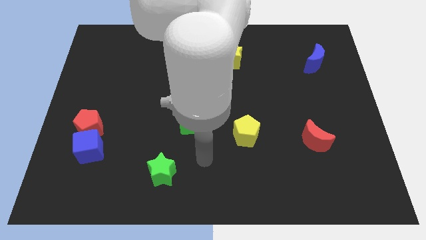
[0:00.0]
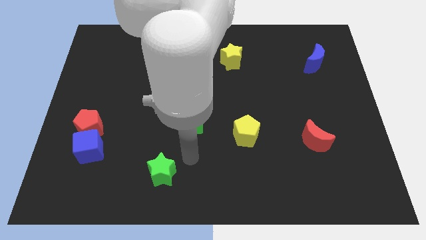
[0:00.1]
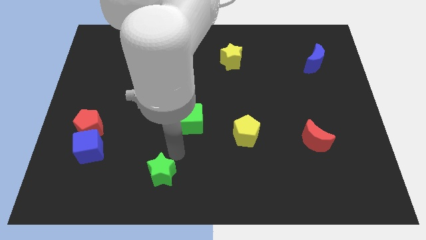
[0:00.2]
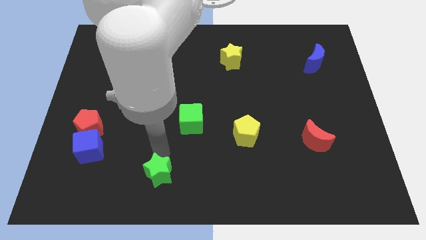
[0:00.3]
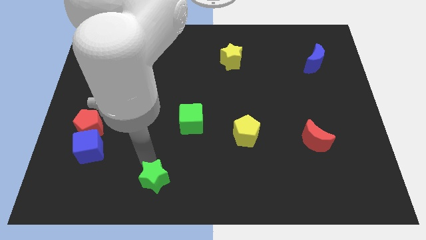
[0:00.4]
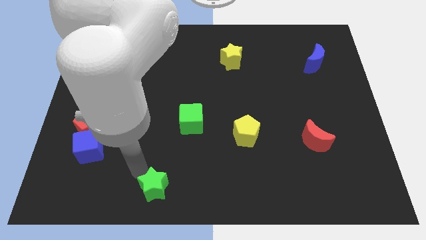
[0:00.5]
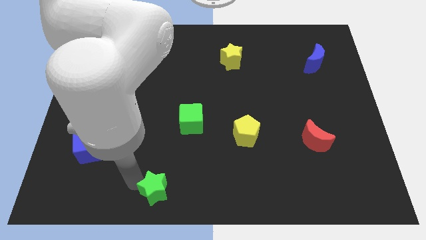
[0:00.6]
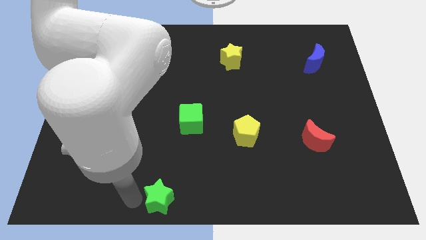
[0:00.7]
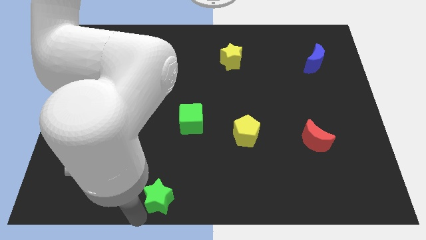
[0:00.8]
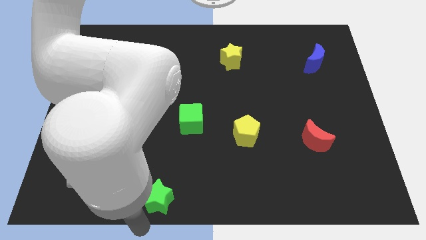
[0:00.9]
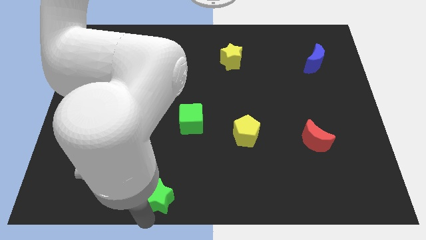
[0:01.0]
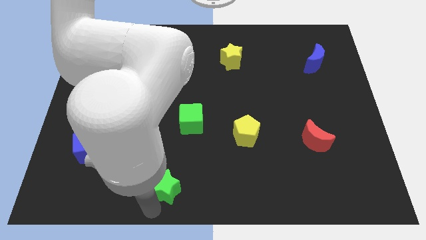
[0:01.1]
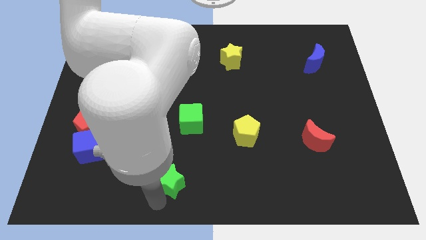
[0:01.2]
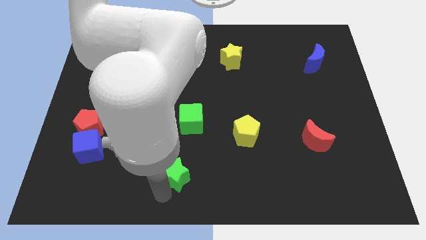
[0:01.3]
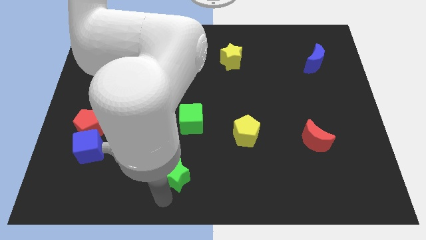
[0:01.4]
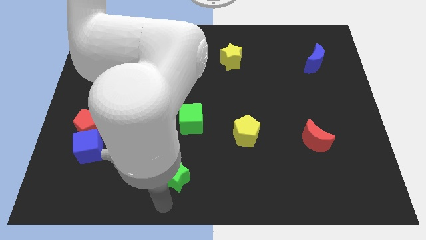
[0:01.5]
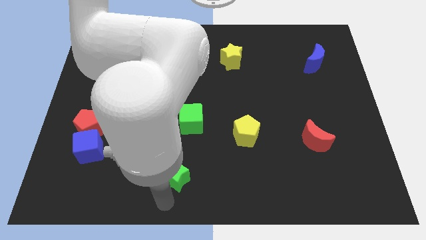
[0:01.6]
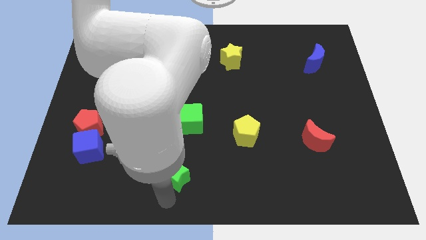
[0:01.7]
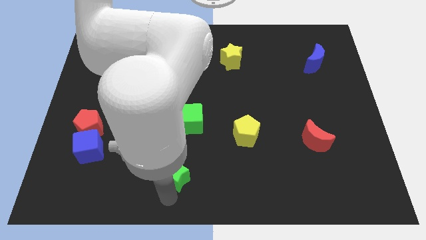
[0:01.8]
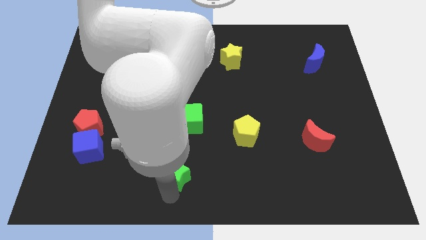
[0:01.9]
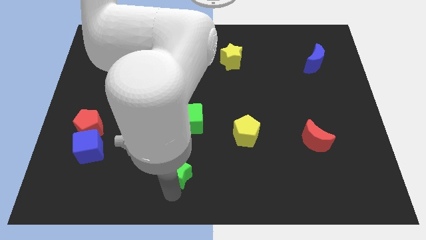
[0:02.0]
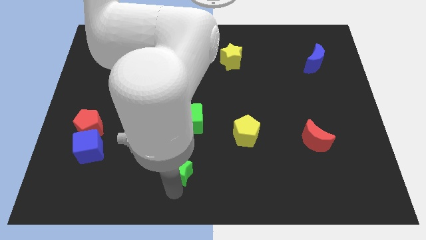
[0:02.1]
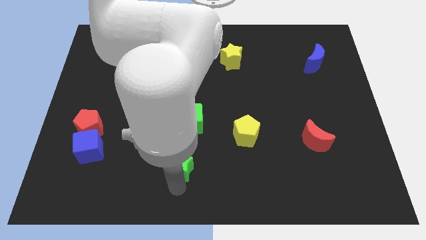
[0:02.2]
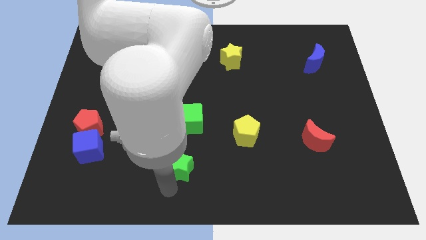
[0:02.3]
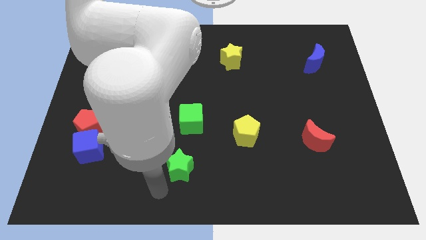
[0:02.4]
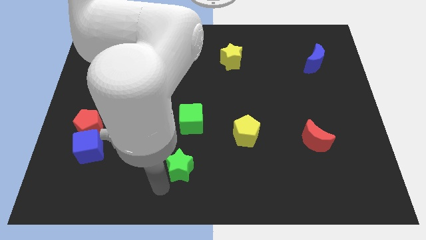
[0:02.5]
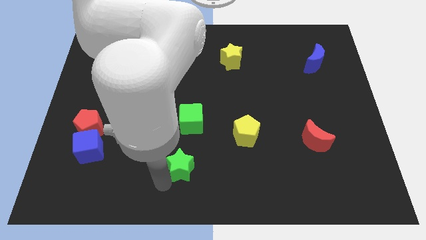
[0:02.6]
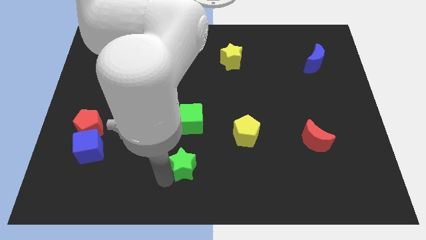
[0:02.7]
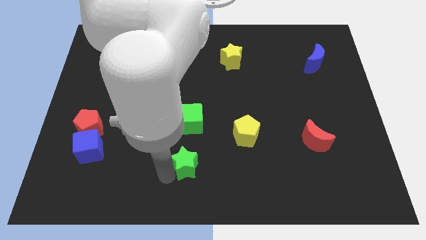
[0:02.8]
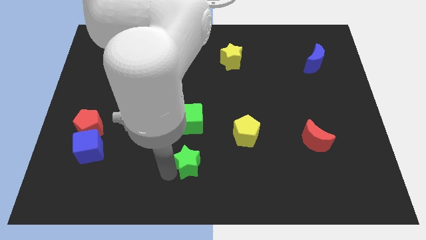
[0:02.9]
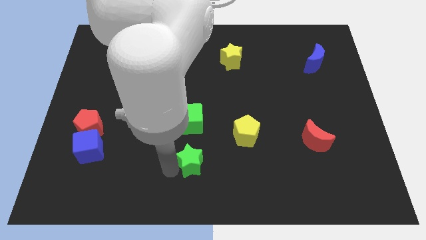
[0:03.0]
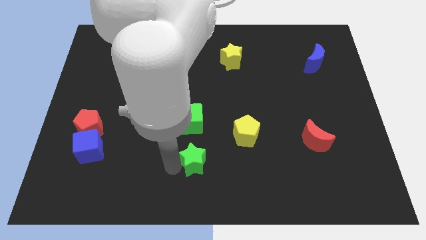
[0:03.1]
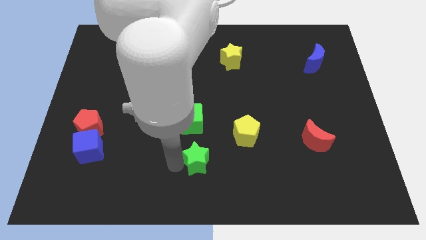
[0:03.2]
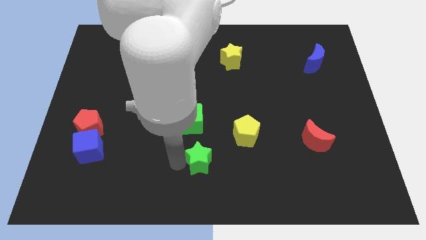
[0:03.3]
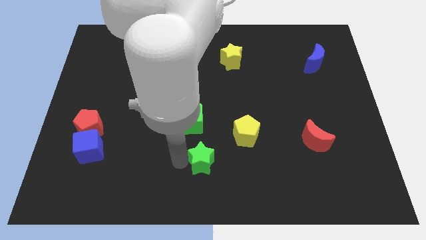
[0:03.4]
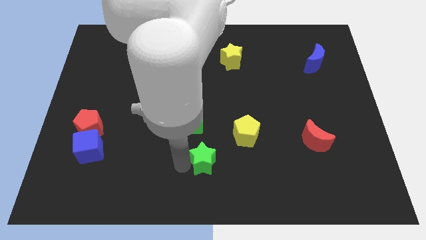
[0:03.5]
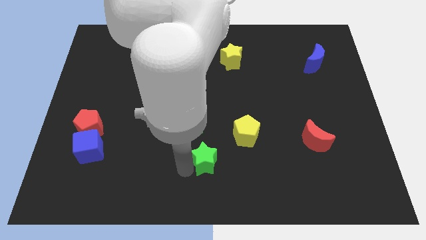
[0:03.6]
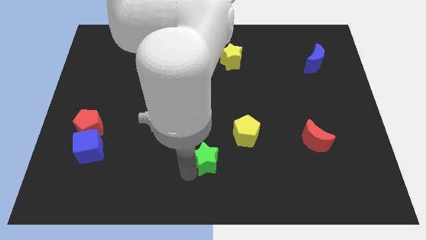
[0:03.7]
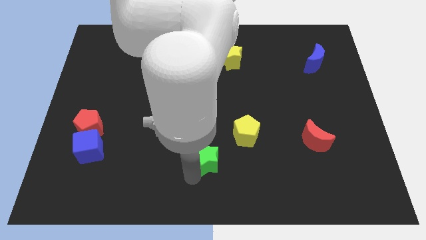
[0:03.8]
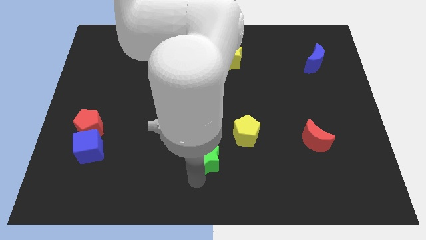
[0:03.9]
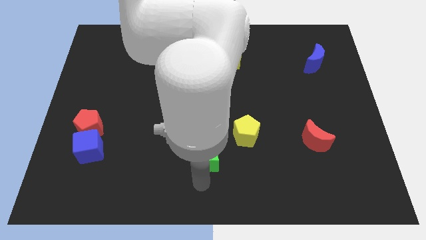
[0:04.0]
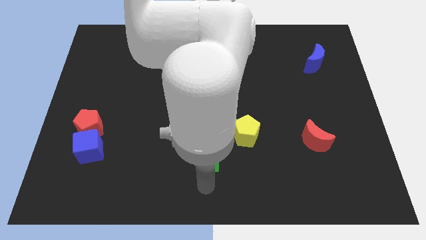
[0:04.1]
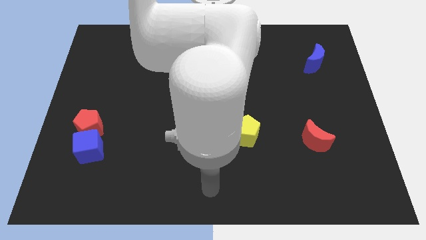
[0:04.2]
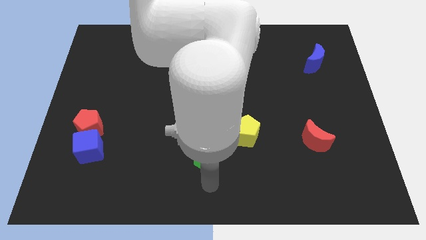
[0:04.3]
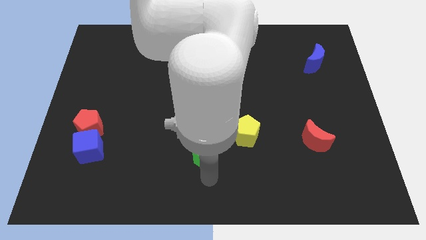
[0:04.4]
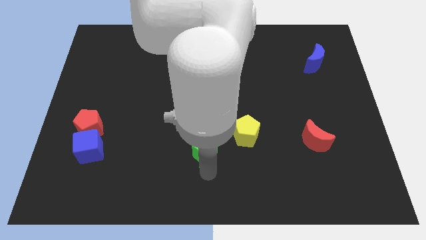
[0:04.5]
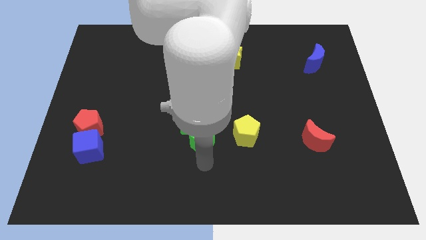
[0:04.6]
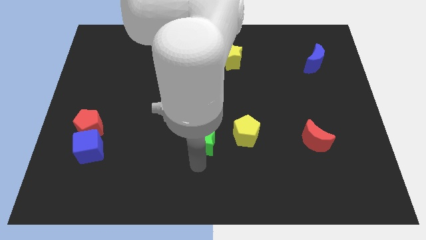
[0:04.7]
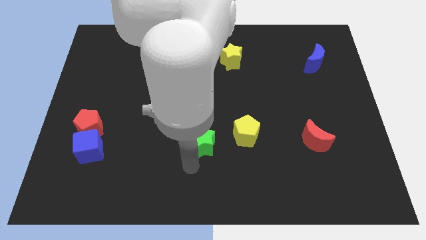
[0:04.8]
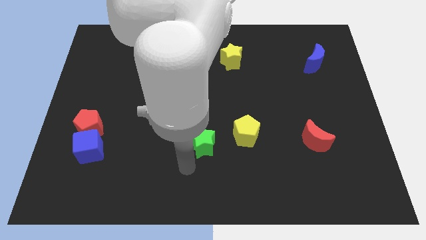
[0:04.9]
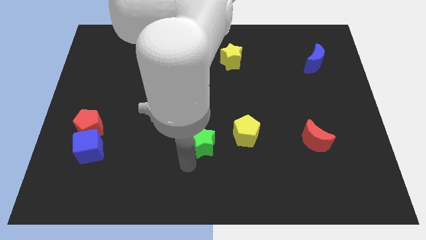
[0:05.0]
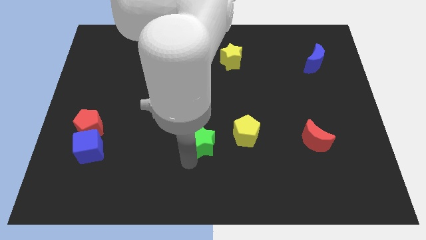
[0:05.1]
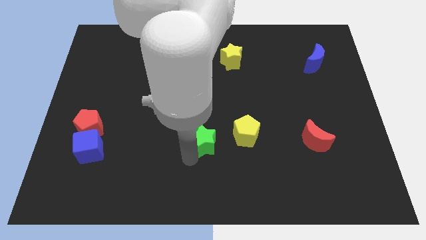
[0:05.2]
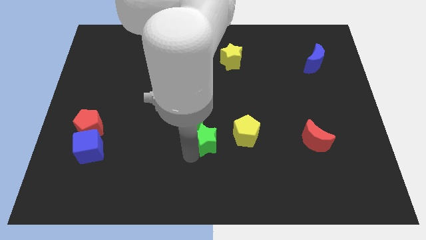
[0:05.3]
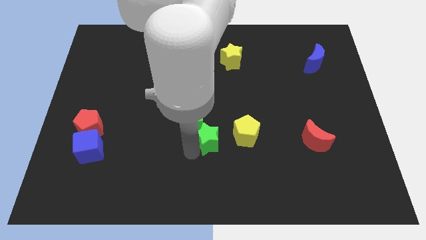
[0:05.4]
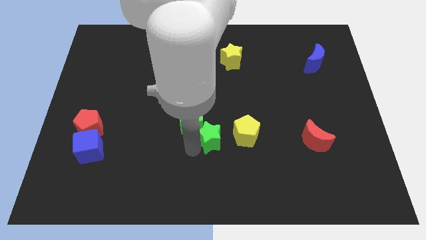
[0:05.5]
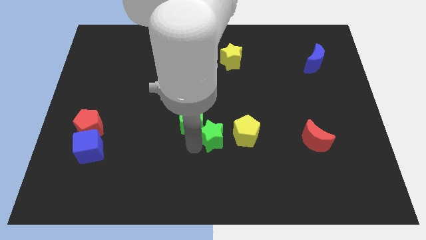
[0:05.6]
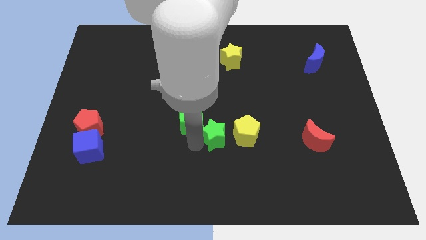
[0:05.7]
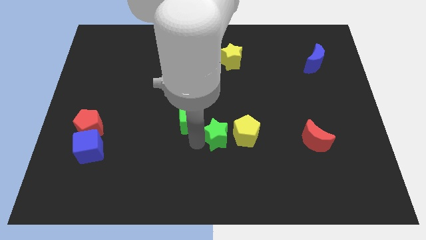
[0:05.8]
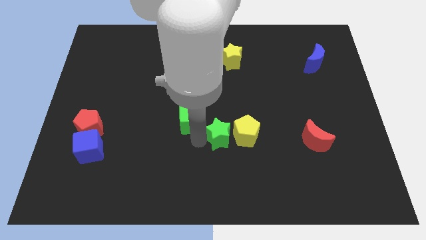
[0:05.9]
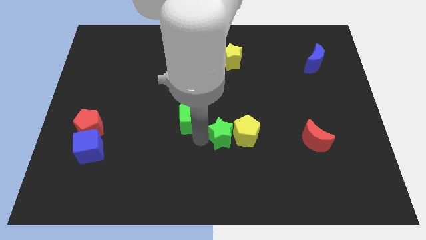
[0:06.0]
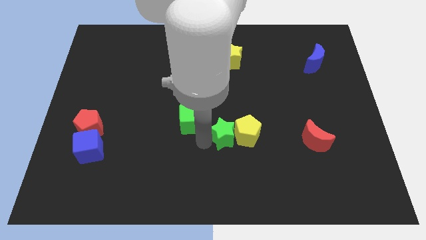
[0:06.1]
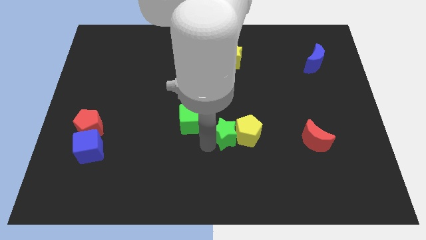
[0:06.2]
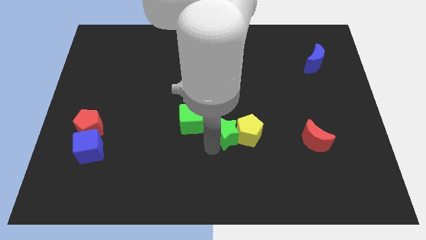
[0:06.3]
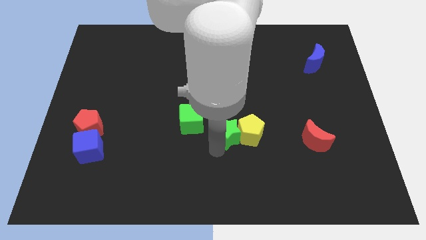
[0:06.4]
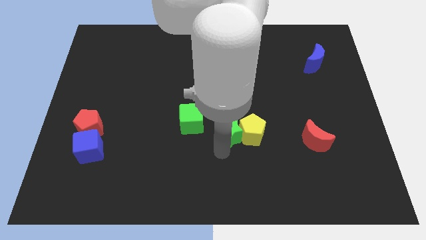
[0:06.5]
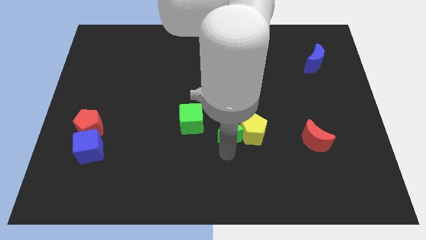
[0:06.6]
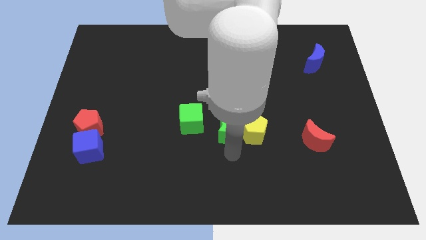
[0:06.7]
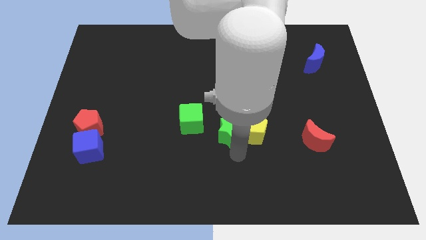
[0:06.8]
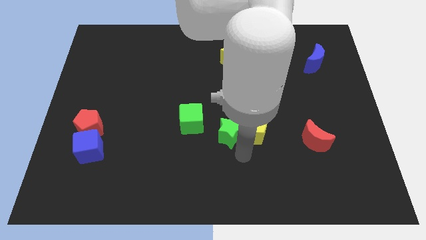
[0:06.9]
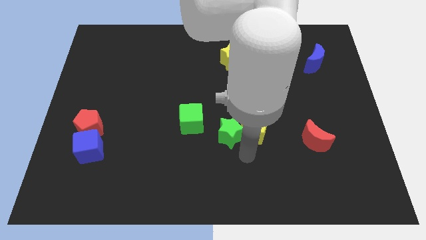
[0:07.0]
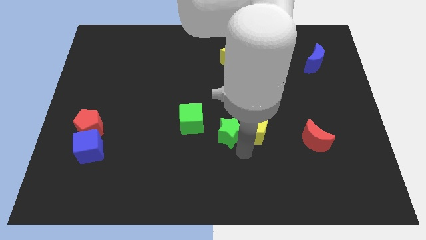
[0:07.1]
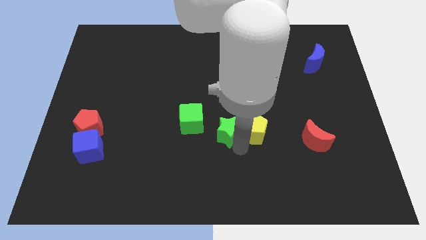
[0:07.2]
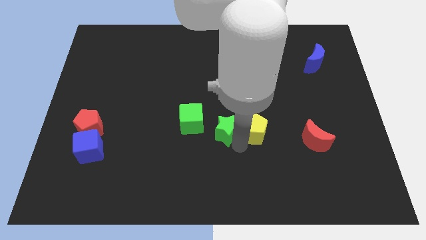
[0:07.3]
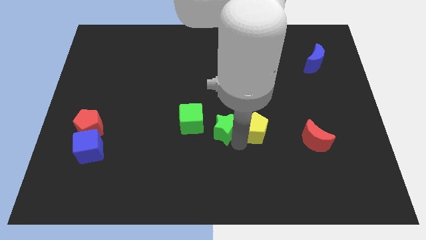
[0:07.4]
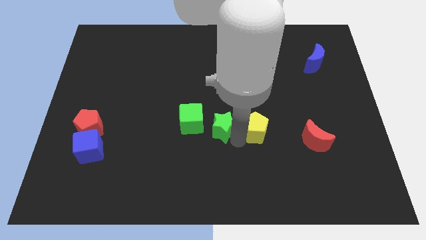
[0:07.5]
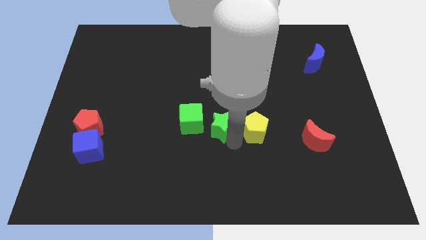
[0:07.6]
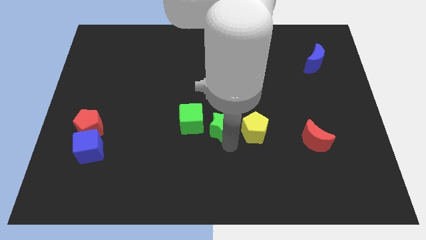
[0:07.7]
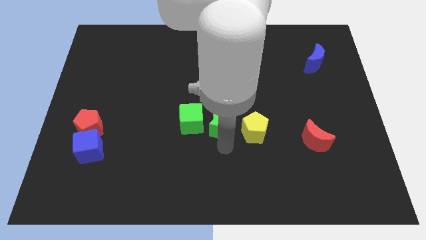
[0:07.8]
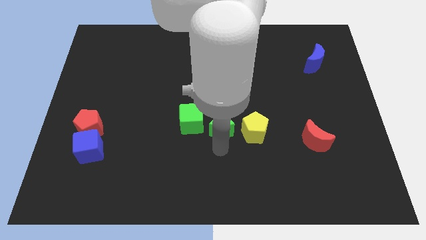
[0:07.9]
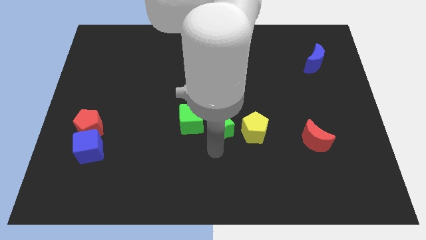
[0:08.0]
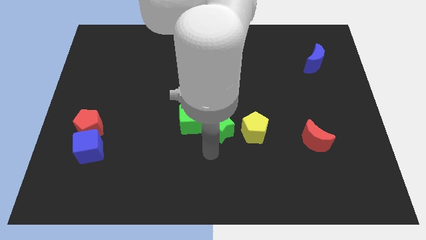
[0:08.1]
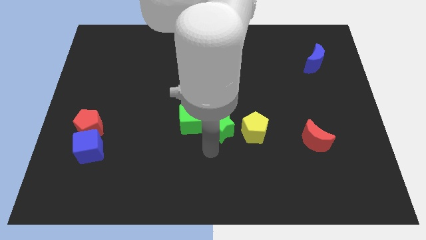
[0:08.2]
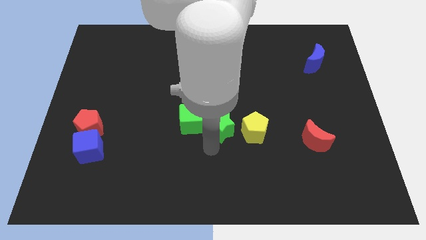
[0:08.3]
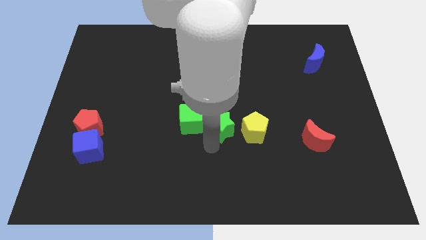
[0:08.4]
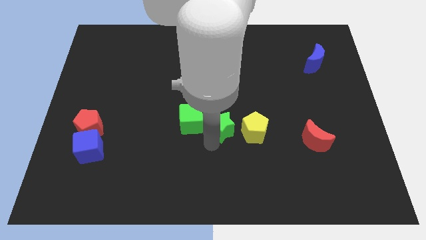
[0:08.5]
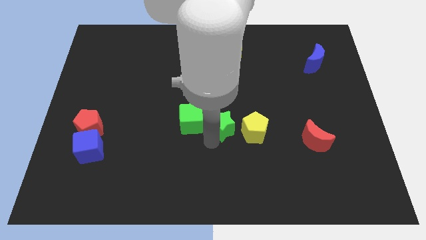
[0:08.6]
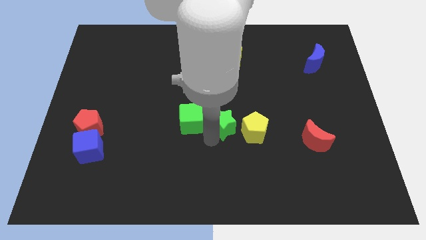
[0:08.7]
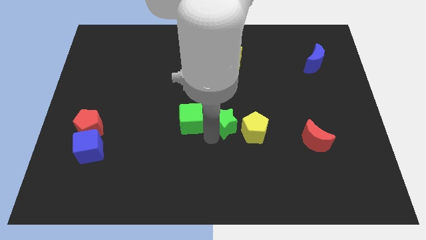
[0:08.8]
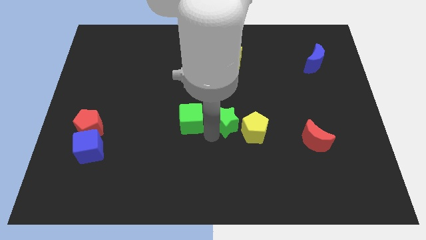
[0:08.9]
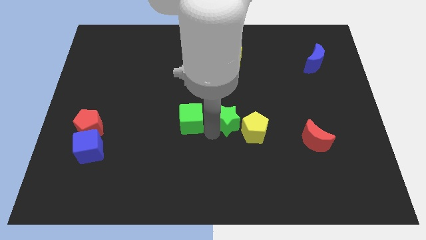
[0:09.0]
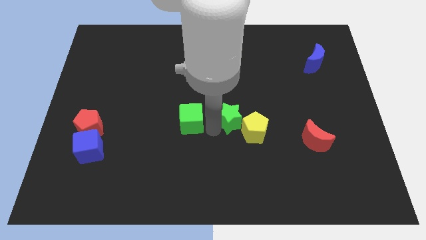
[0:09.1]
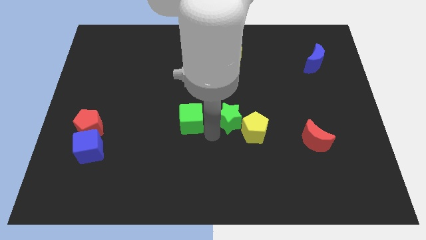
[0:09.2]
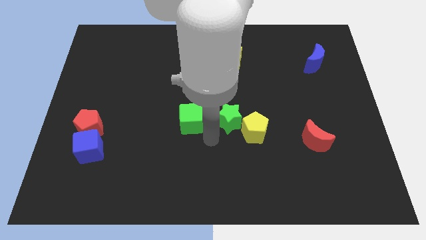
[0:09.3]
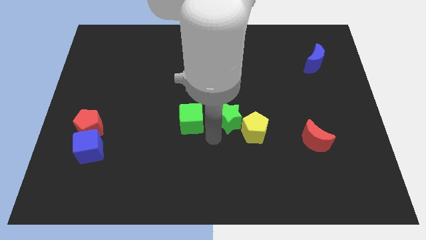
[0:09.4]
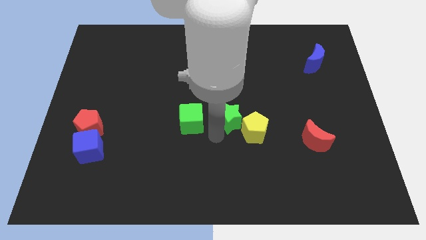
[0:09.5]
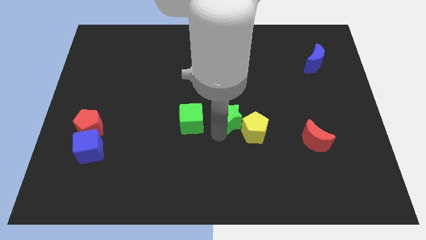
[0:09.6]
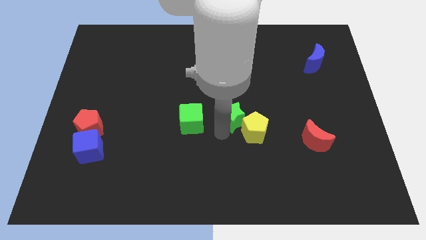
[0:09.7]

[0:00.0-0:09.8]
push the green star up and to the right diagonally
